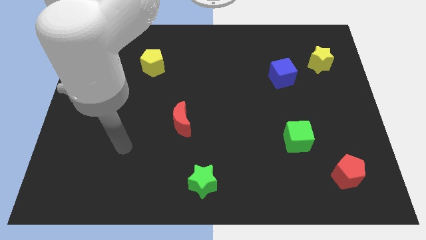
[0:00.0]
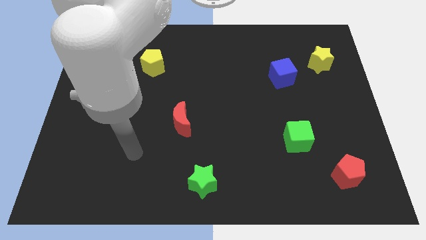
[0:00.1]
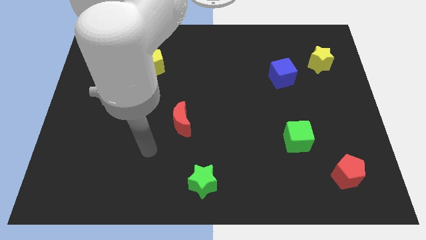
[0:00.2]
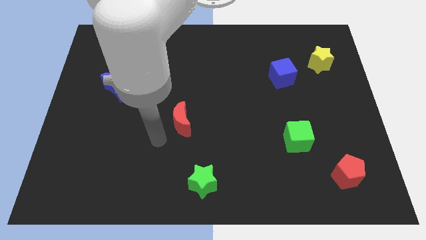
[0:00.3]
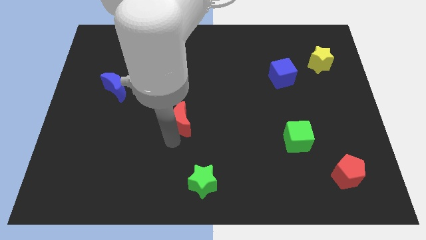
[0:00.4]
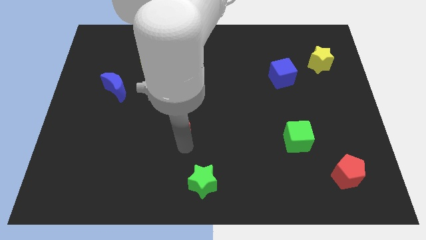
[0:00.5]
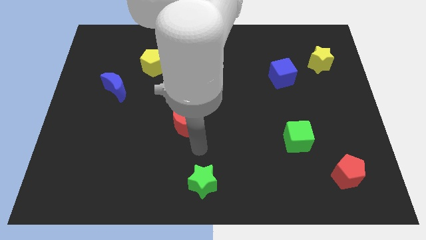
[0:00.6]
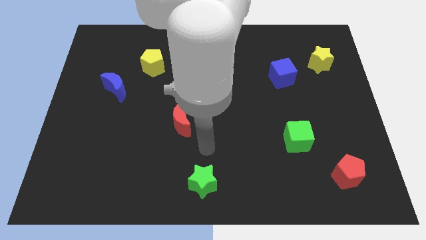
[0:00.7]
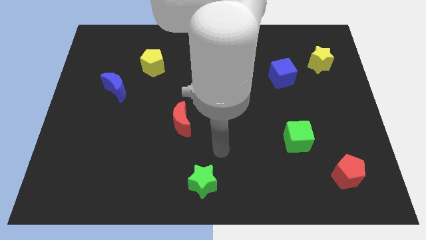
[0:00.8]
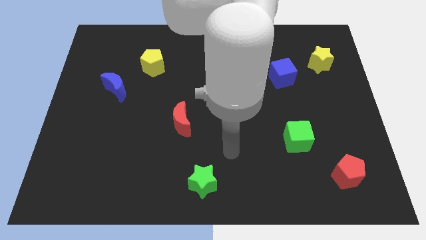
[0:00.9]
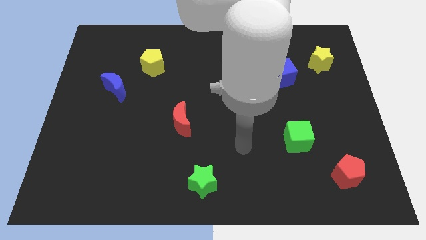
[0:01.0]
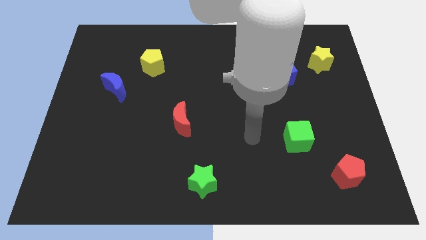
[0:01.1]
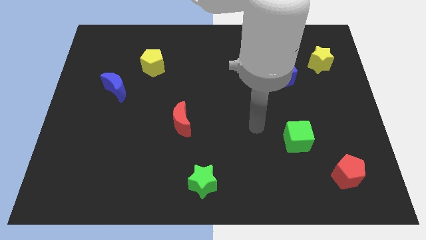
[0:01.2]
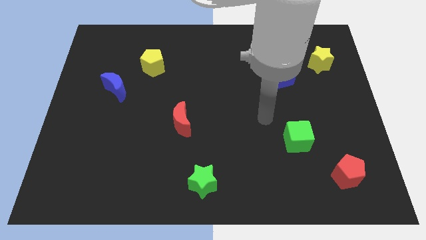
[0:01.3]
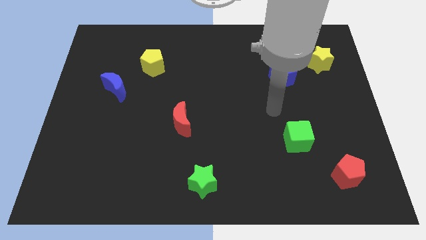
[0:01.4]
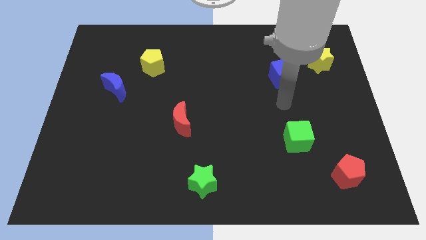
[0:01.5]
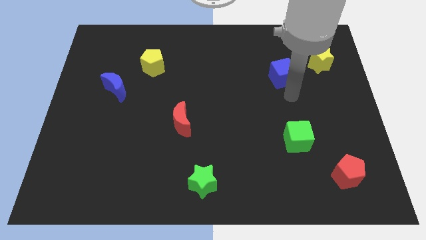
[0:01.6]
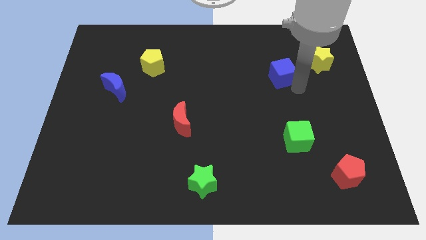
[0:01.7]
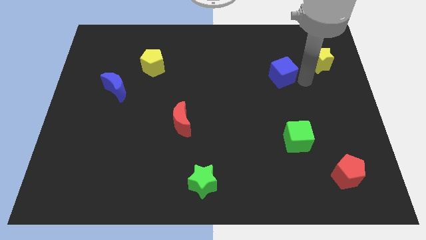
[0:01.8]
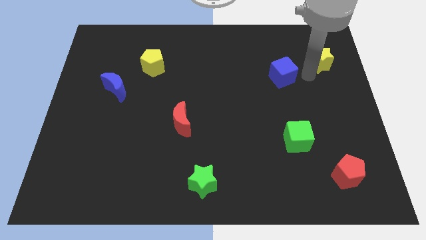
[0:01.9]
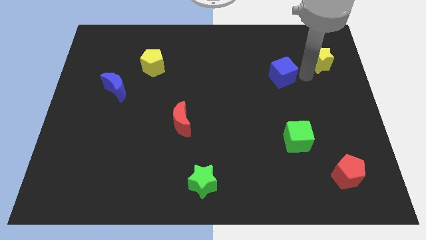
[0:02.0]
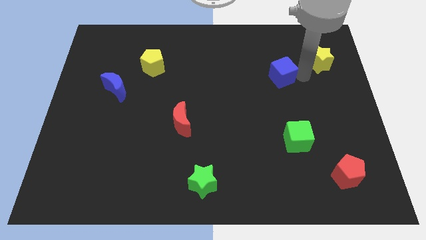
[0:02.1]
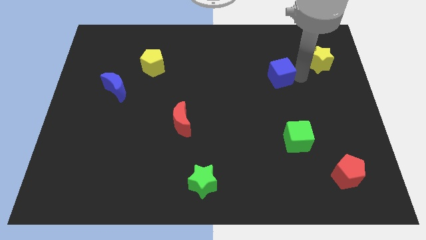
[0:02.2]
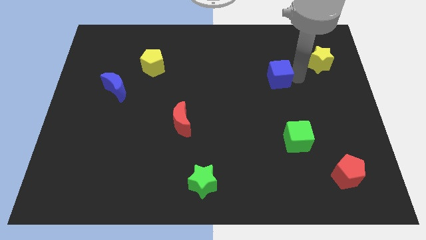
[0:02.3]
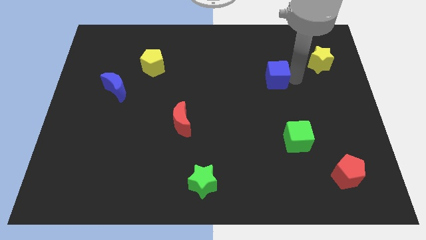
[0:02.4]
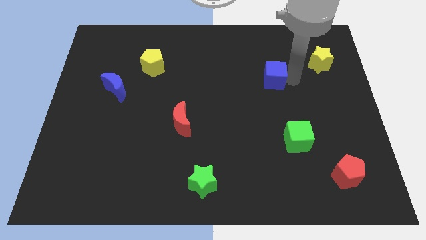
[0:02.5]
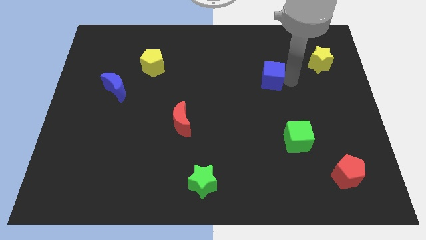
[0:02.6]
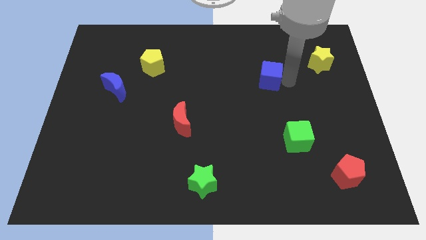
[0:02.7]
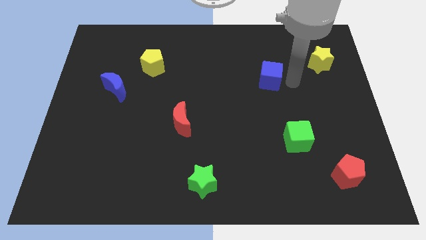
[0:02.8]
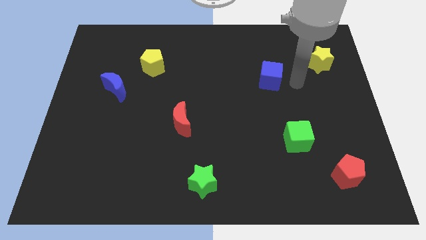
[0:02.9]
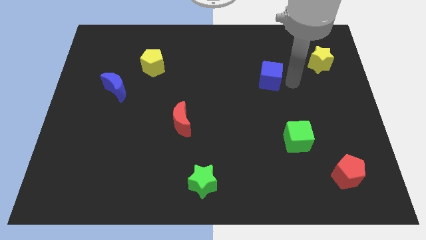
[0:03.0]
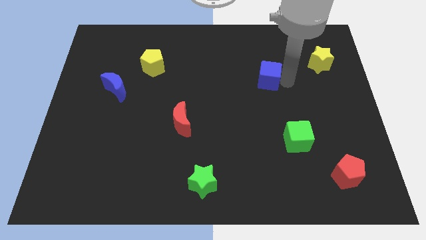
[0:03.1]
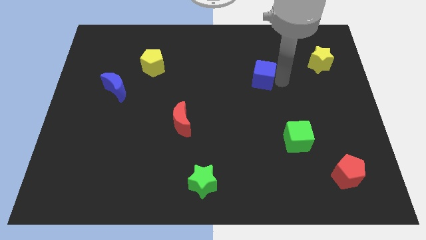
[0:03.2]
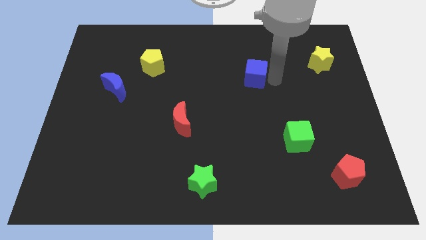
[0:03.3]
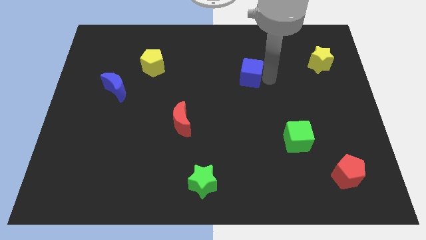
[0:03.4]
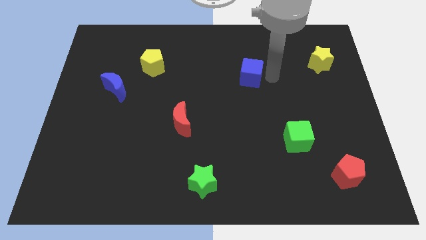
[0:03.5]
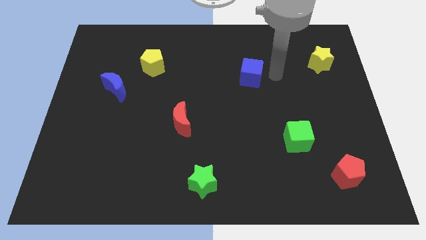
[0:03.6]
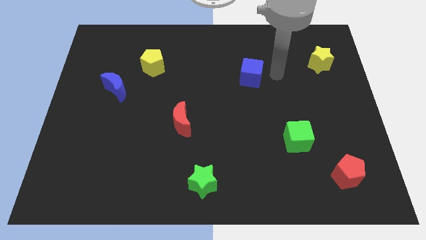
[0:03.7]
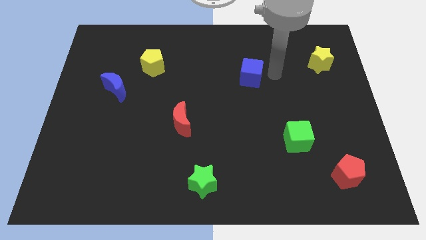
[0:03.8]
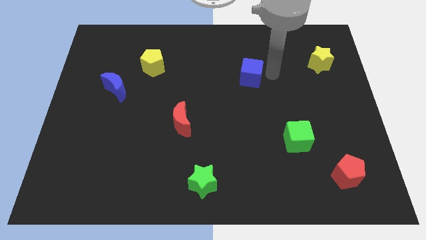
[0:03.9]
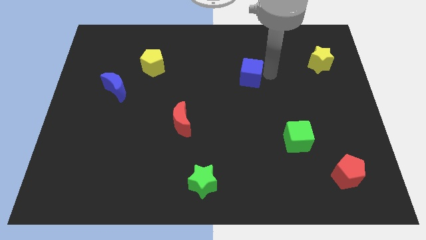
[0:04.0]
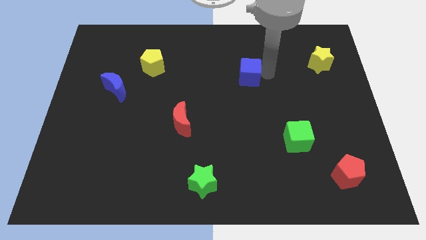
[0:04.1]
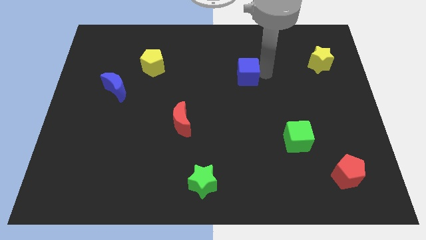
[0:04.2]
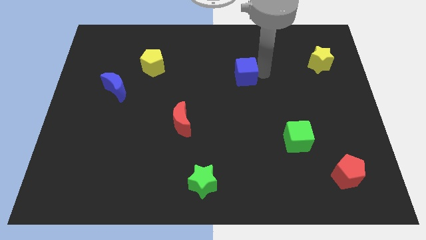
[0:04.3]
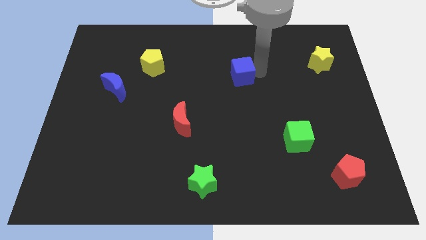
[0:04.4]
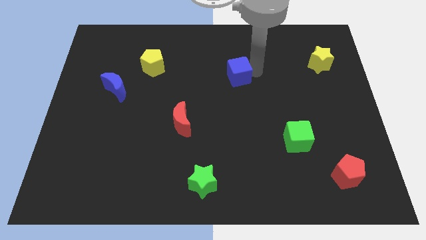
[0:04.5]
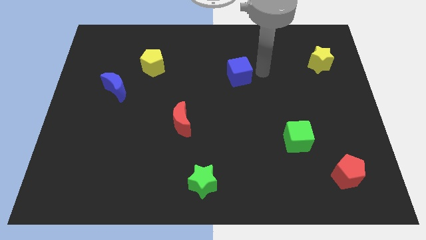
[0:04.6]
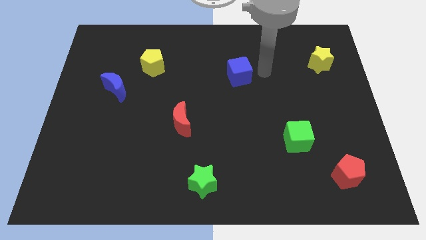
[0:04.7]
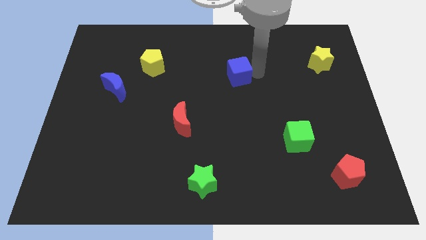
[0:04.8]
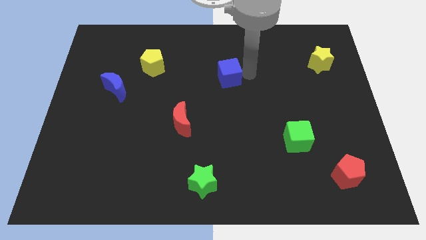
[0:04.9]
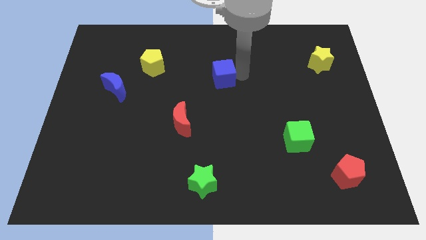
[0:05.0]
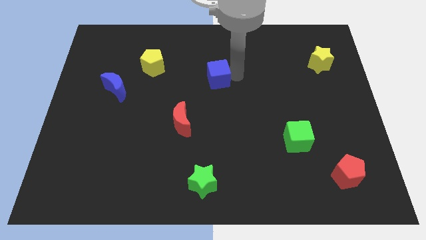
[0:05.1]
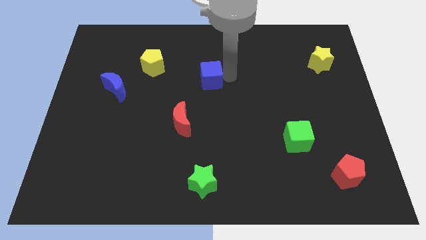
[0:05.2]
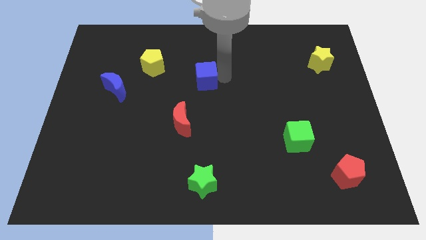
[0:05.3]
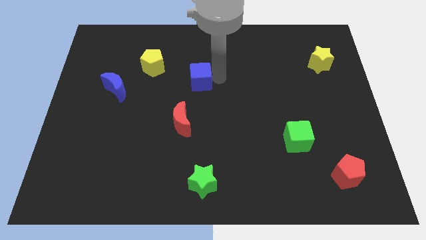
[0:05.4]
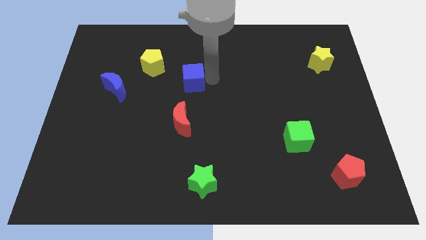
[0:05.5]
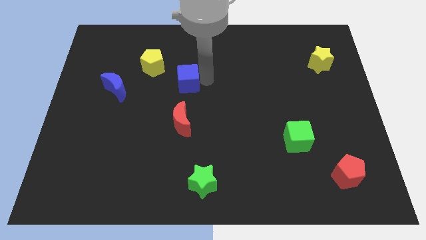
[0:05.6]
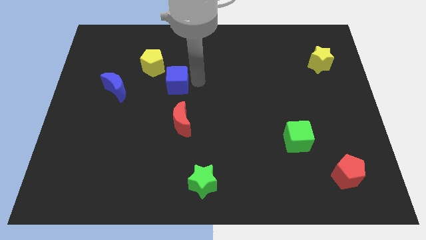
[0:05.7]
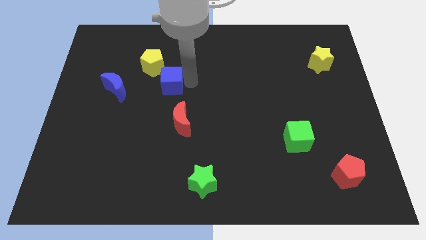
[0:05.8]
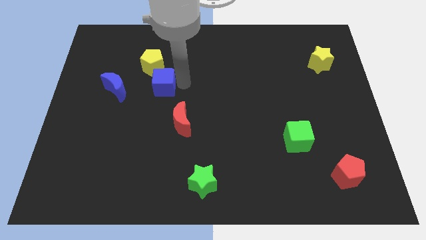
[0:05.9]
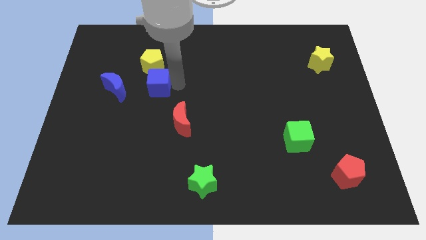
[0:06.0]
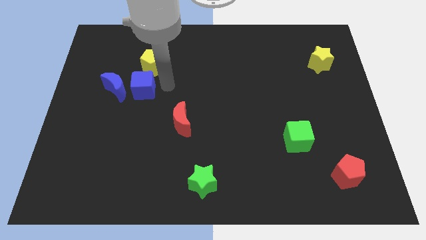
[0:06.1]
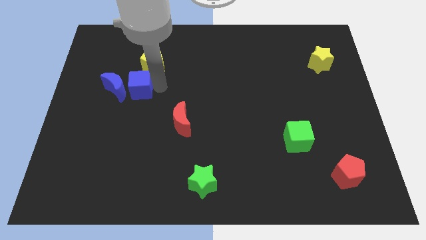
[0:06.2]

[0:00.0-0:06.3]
put the blue cube next to the blue moon

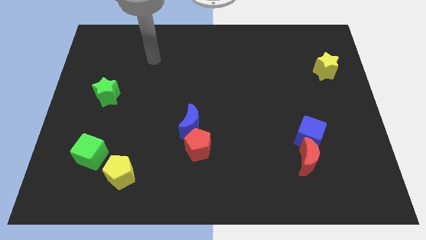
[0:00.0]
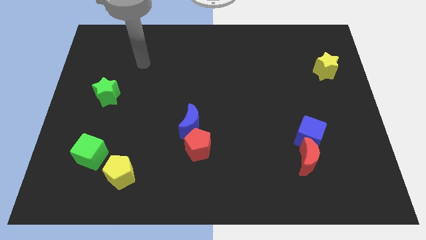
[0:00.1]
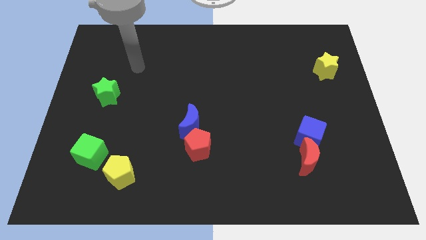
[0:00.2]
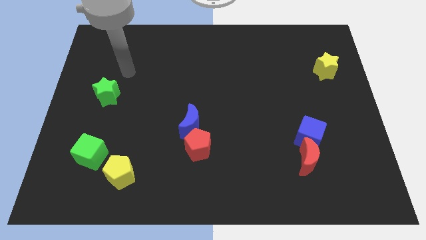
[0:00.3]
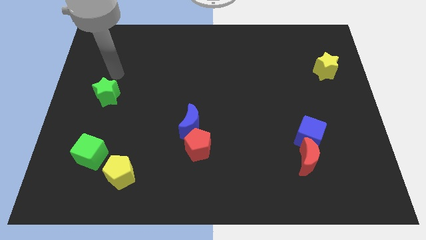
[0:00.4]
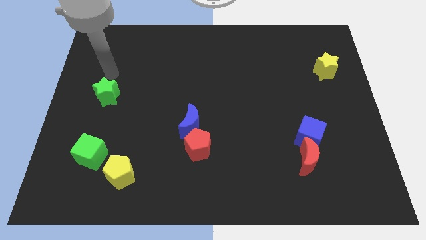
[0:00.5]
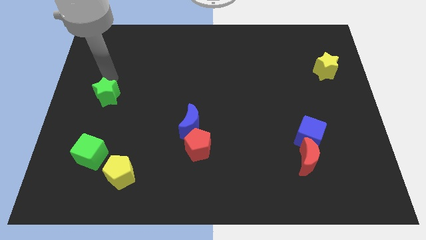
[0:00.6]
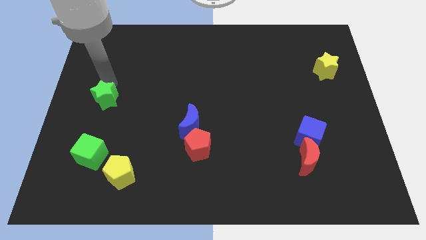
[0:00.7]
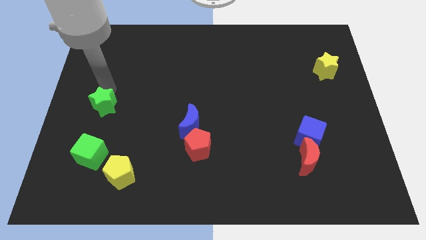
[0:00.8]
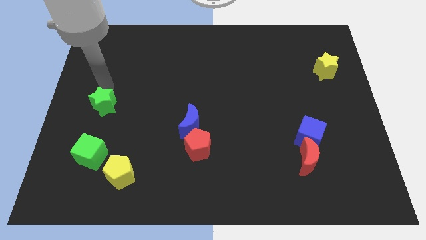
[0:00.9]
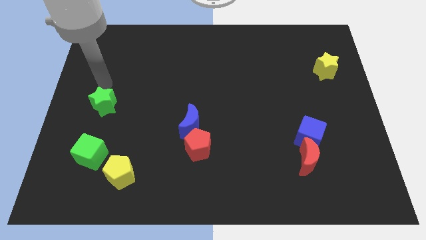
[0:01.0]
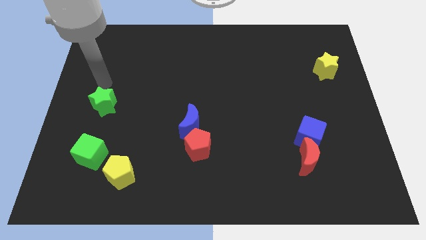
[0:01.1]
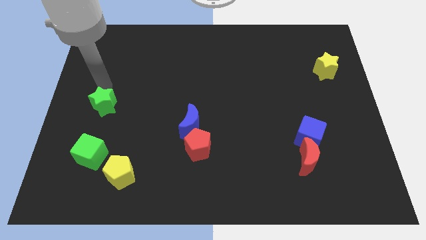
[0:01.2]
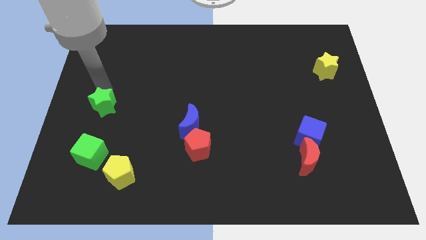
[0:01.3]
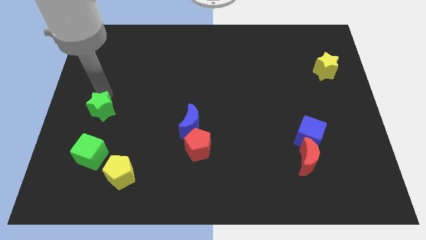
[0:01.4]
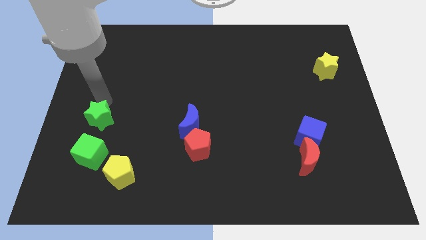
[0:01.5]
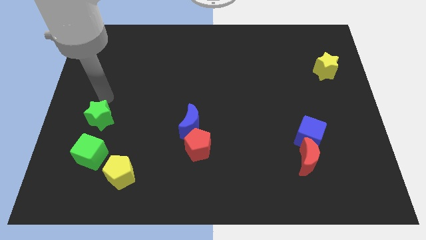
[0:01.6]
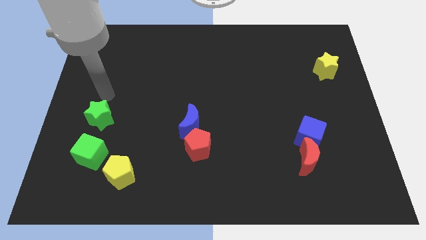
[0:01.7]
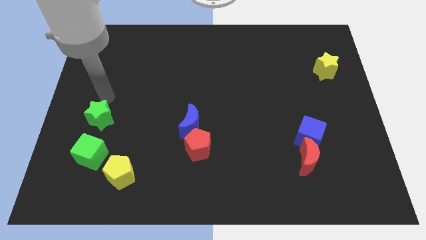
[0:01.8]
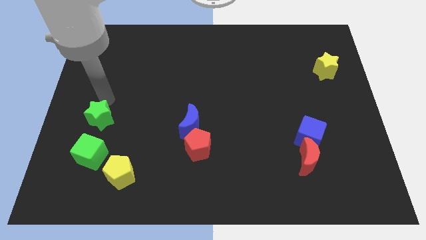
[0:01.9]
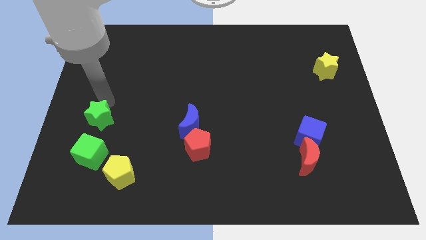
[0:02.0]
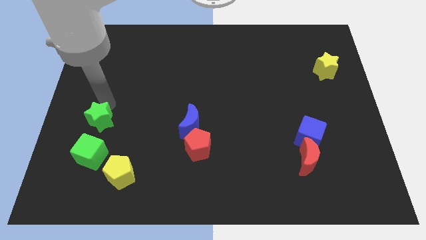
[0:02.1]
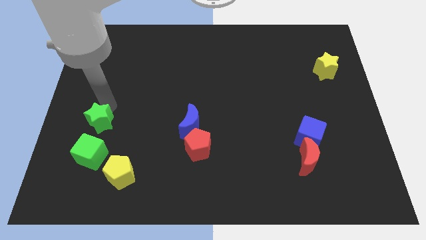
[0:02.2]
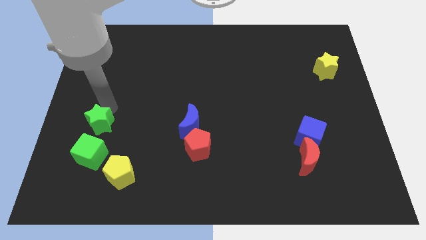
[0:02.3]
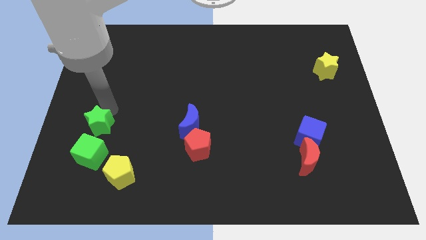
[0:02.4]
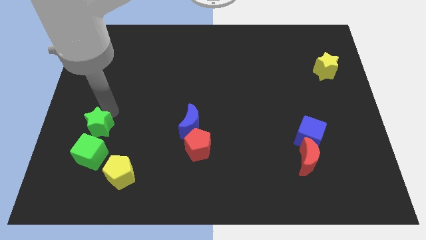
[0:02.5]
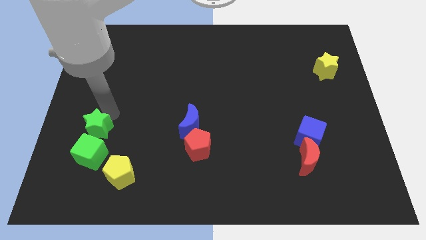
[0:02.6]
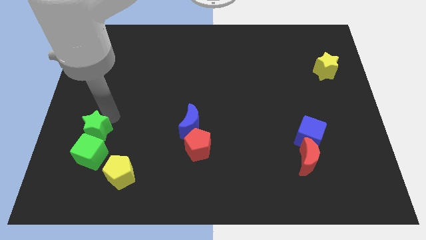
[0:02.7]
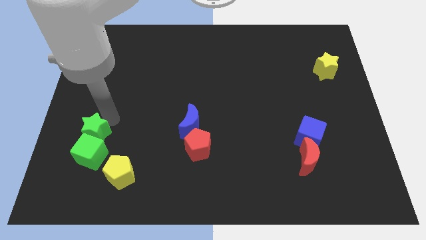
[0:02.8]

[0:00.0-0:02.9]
put the green star towards the green cube
